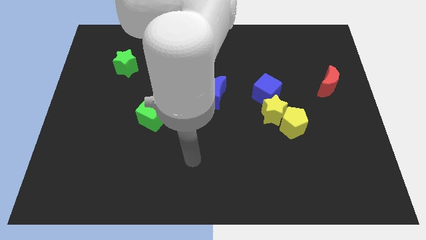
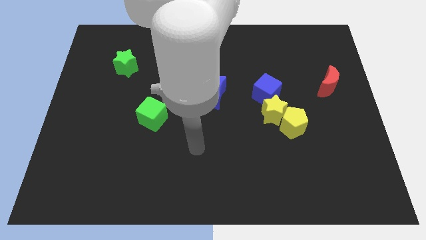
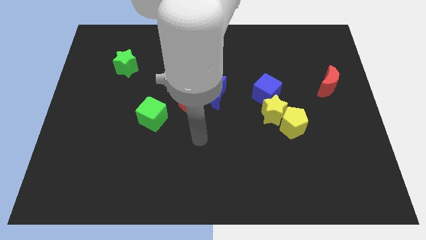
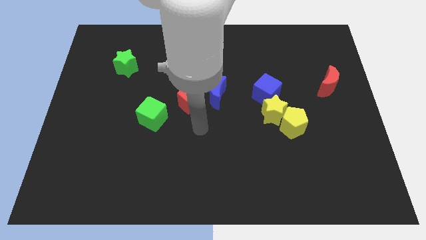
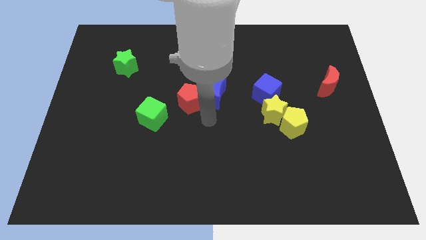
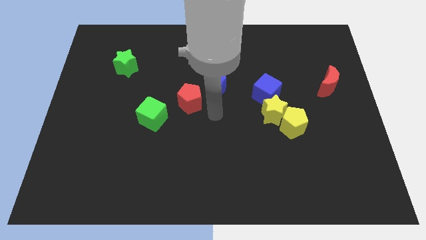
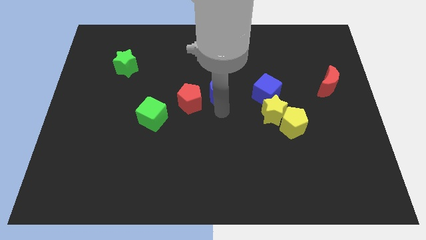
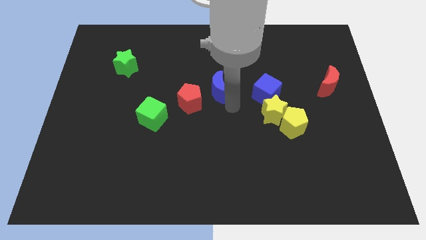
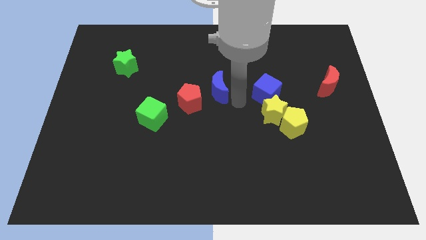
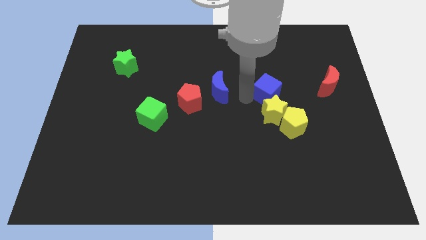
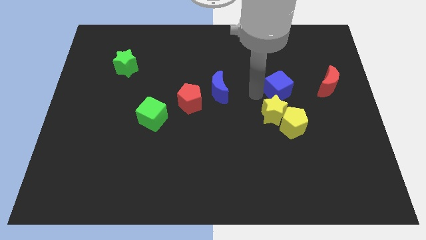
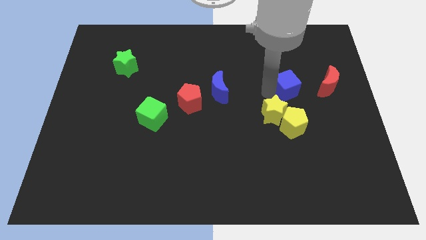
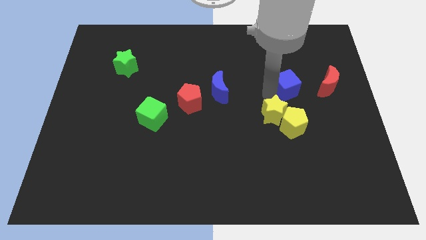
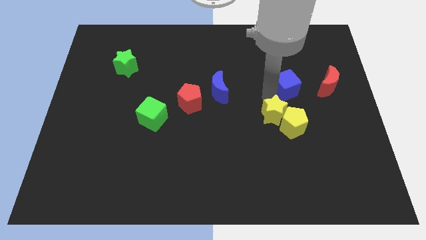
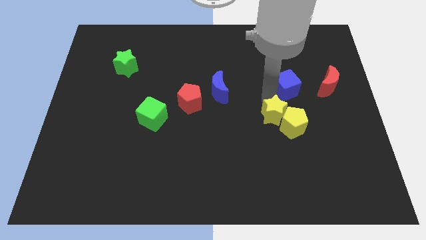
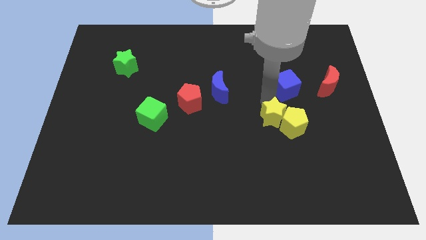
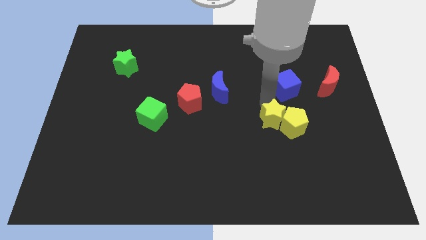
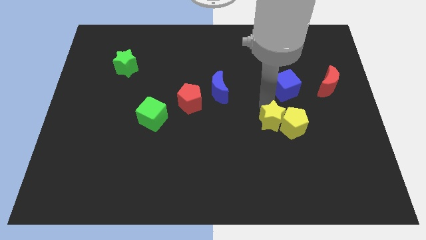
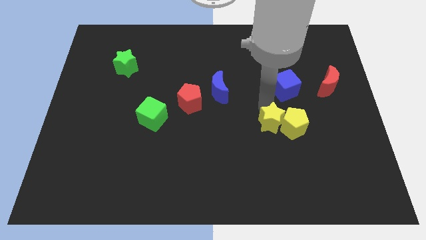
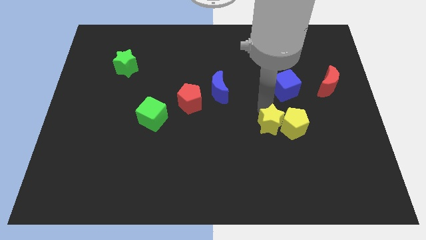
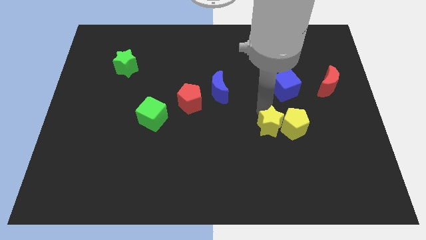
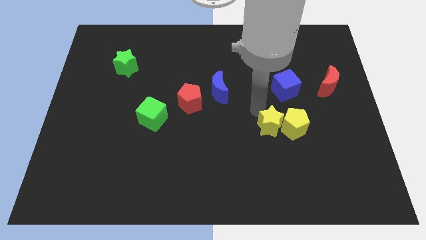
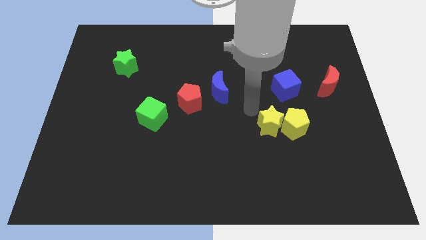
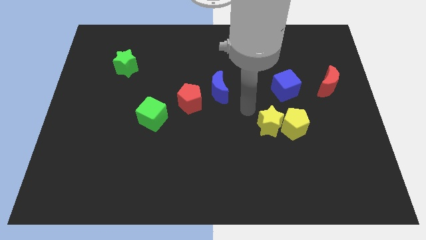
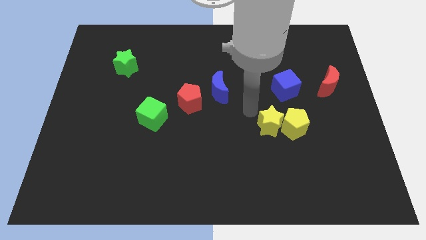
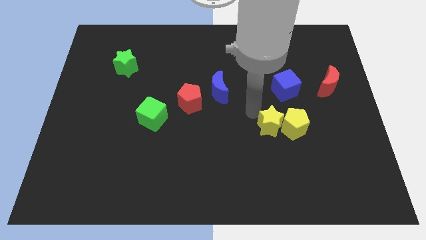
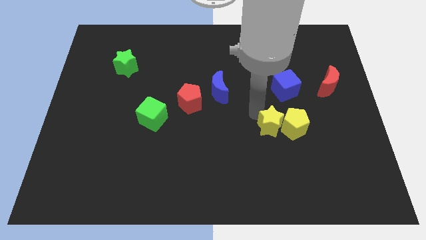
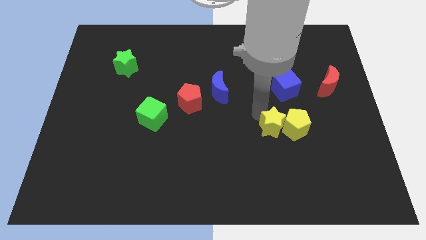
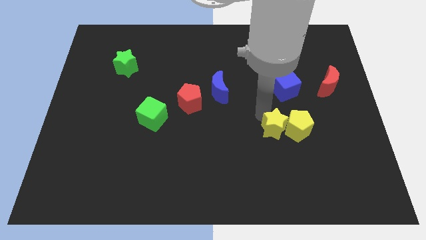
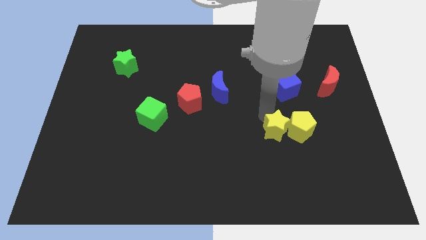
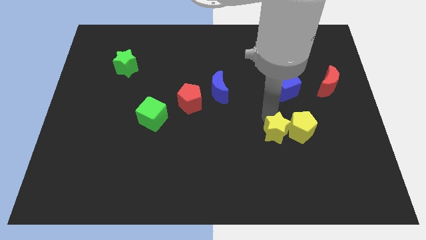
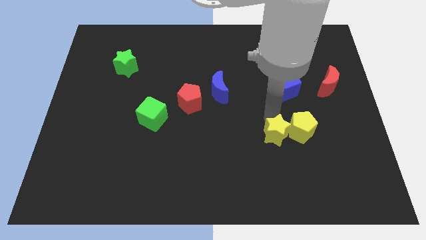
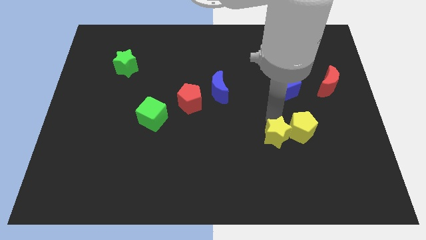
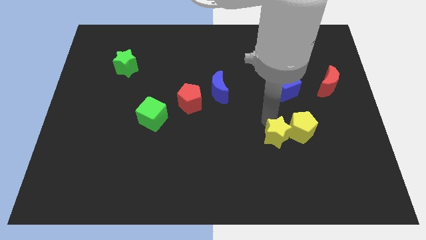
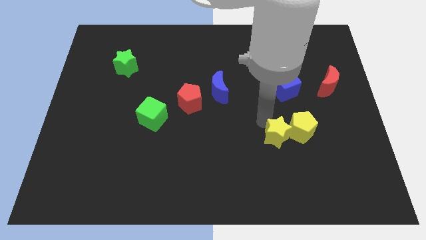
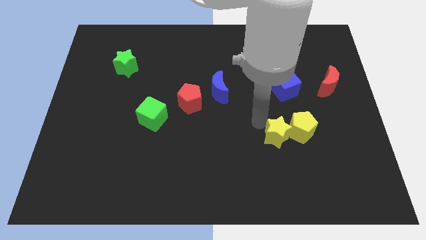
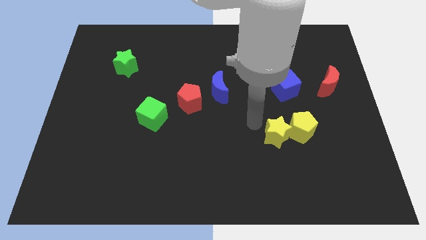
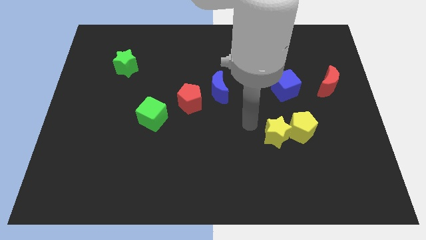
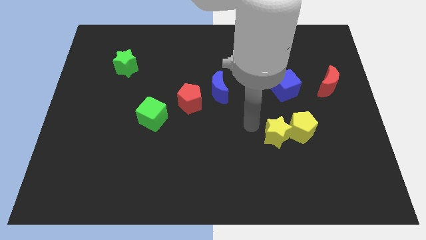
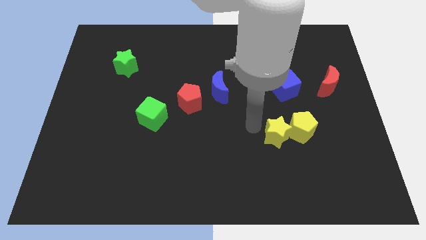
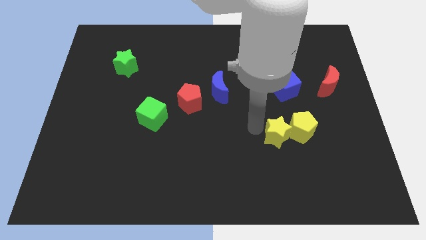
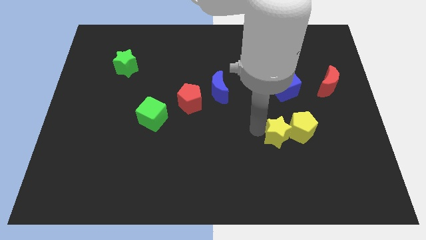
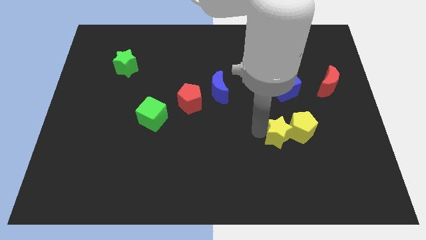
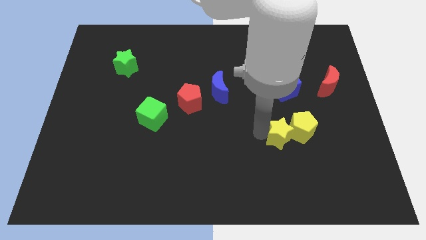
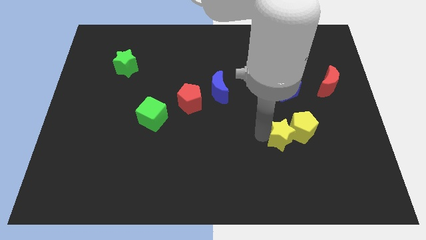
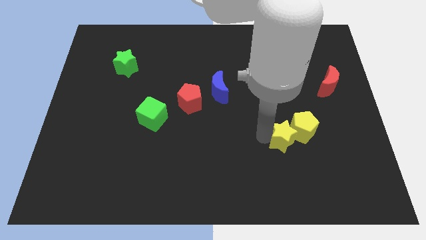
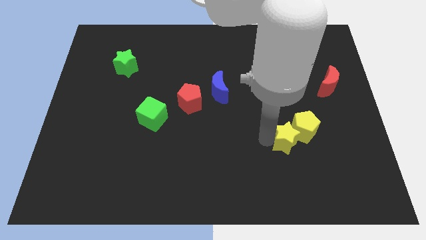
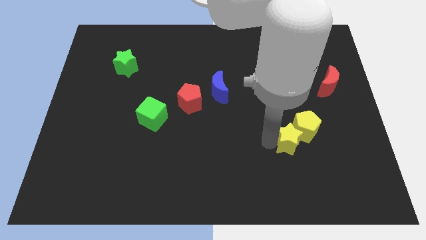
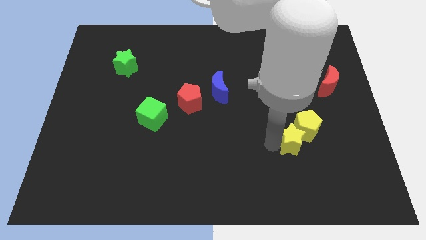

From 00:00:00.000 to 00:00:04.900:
push the yellow star downwards and to the right a bit

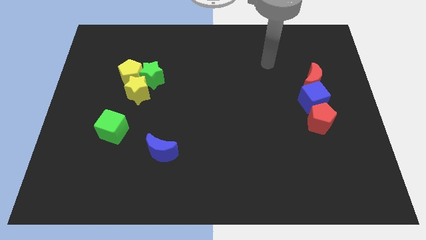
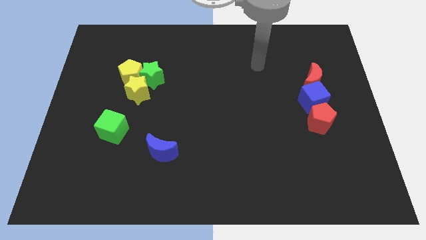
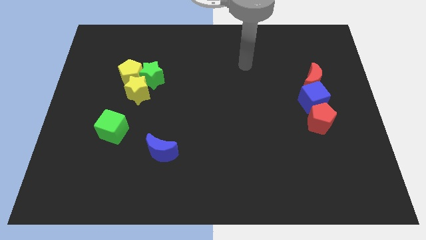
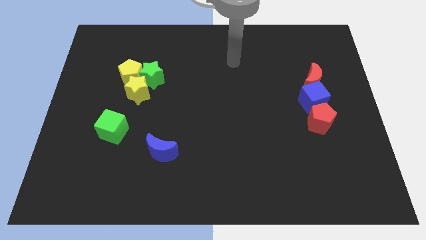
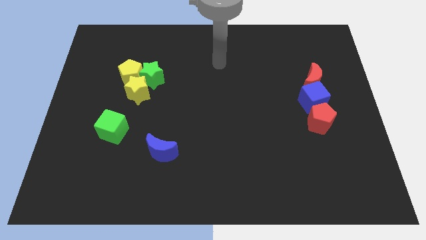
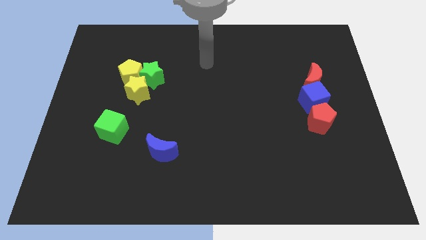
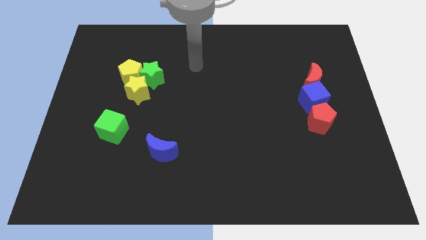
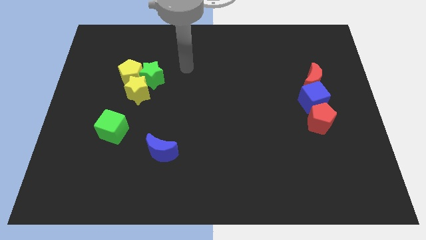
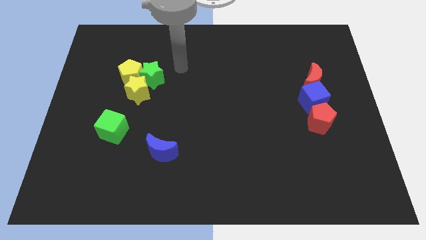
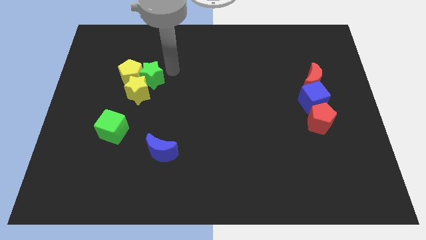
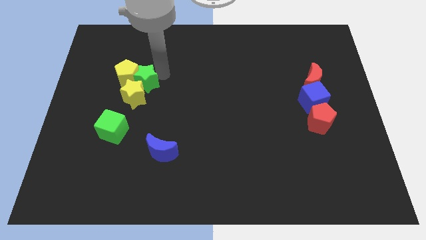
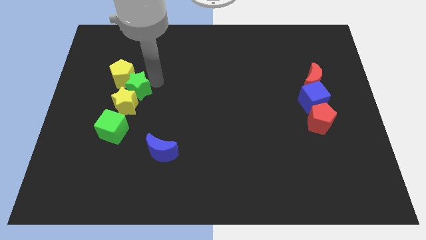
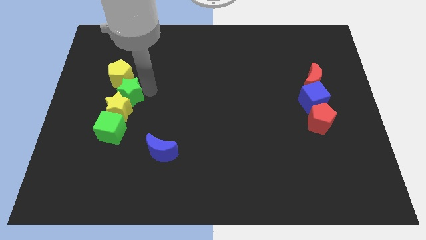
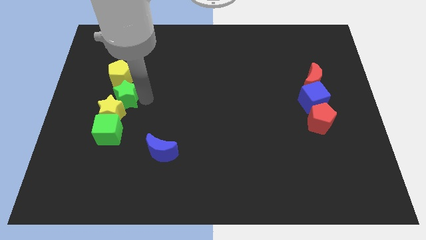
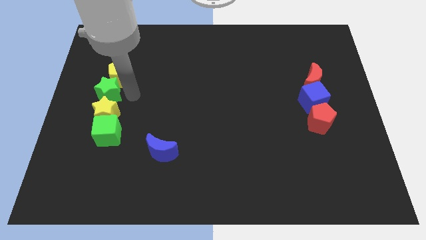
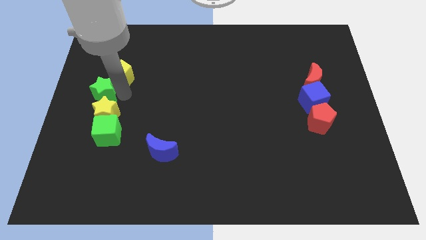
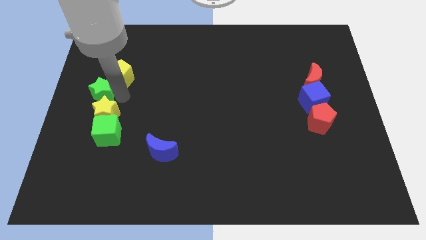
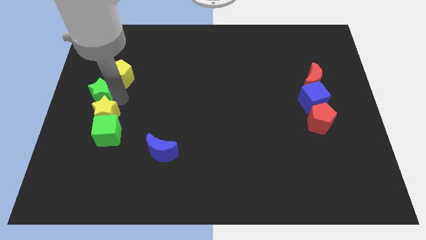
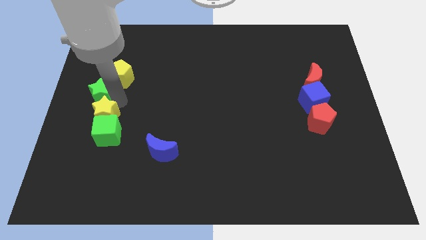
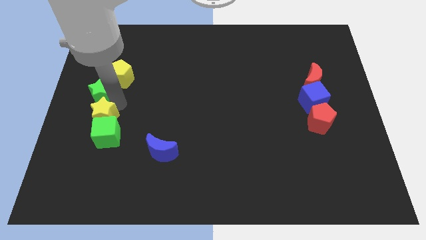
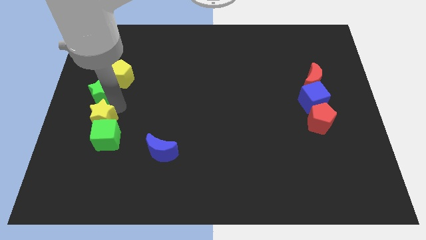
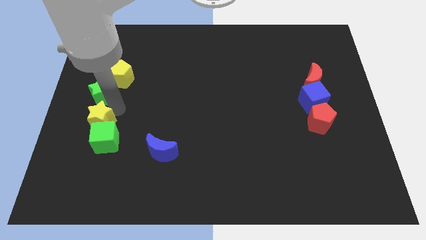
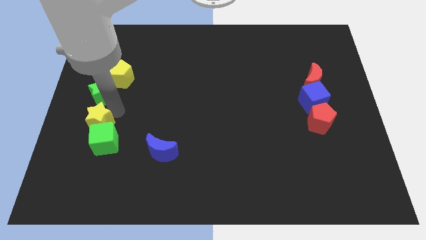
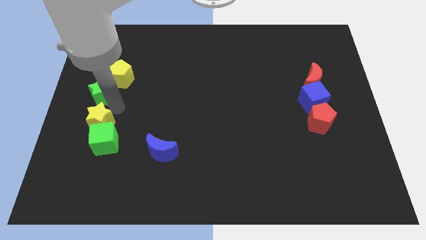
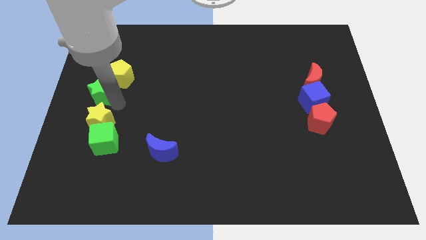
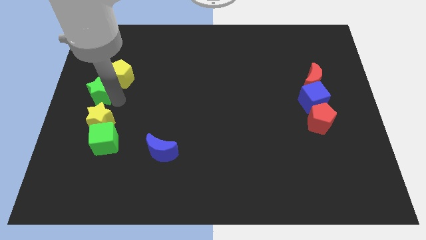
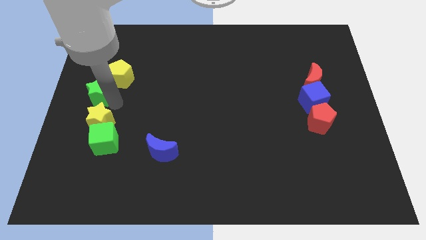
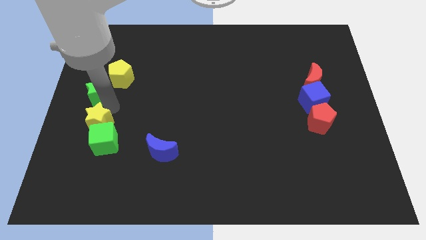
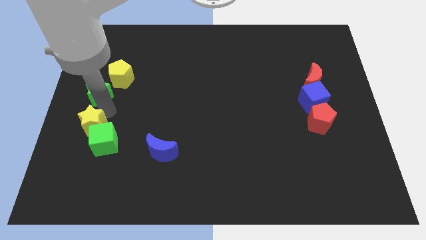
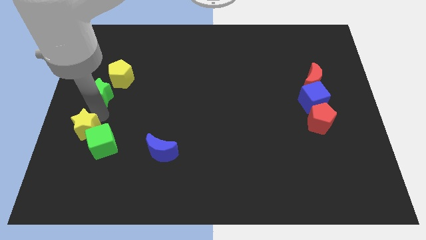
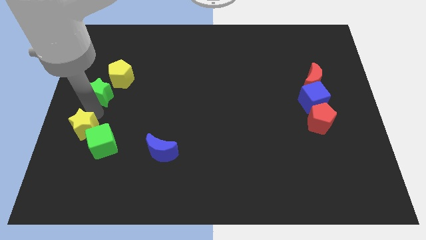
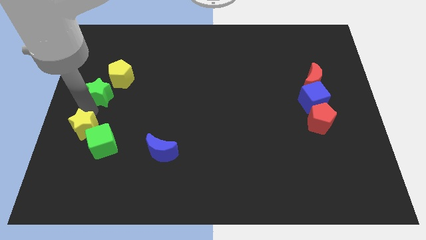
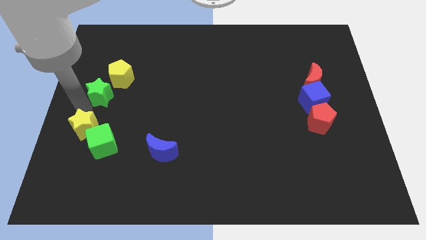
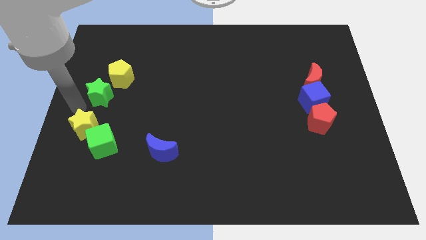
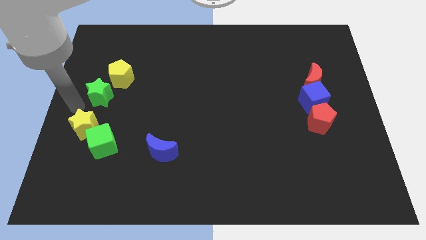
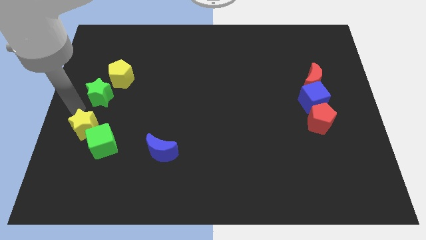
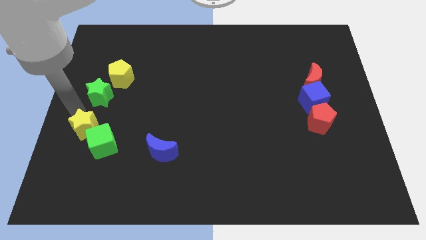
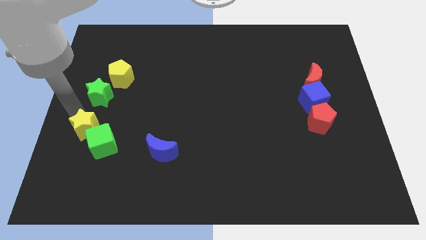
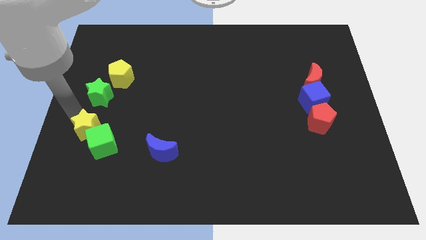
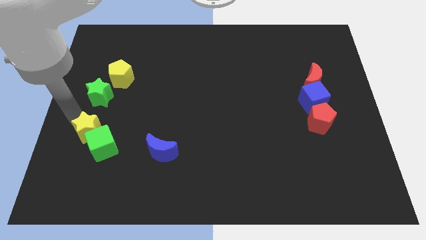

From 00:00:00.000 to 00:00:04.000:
slightly push the yellow star down
